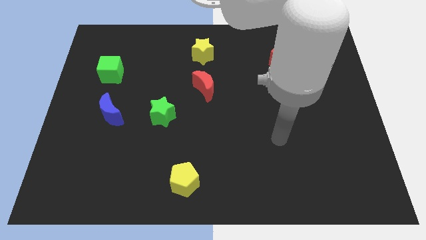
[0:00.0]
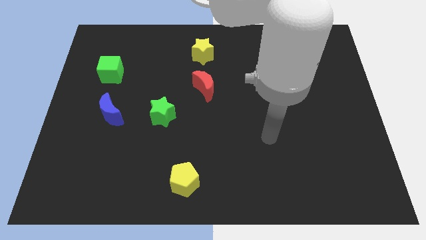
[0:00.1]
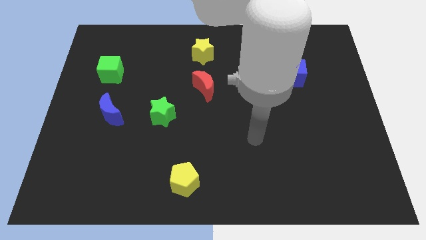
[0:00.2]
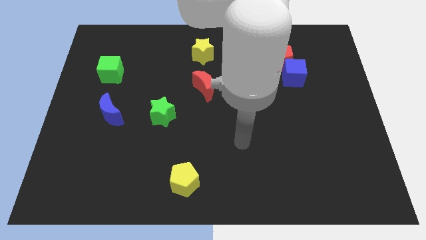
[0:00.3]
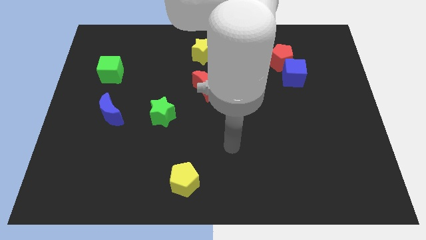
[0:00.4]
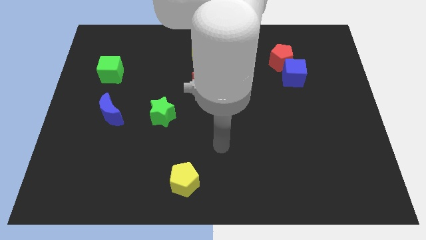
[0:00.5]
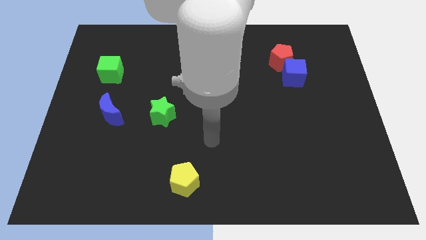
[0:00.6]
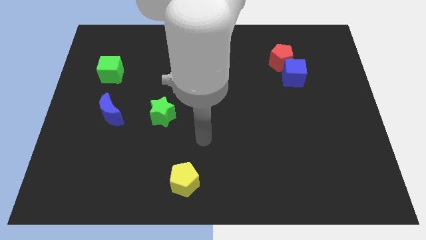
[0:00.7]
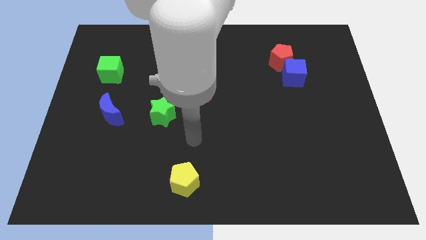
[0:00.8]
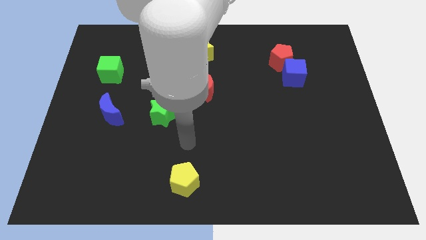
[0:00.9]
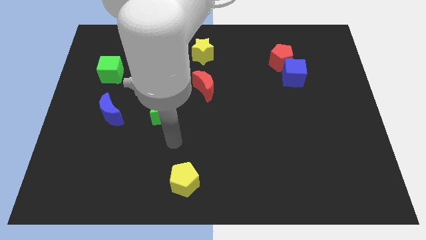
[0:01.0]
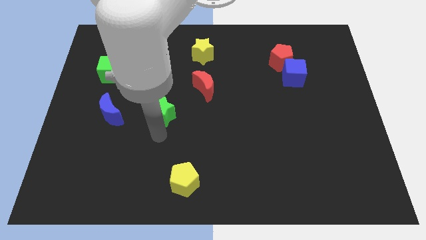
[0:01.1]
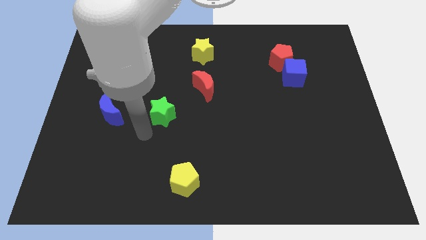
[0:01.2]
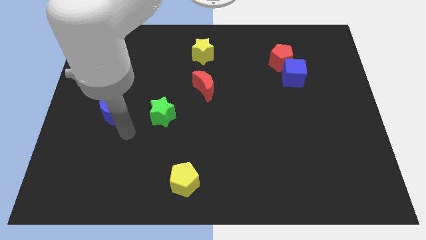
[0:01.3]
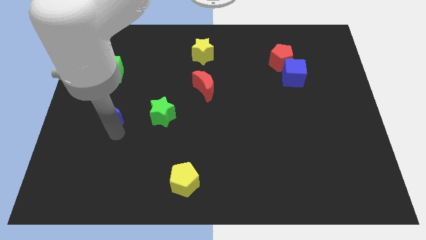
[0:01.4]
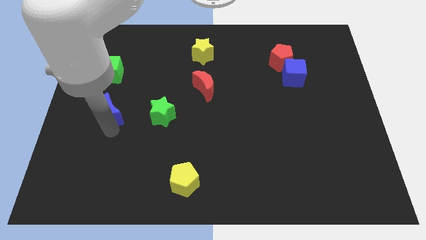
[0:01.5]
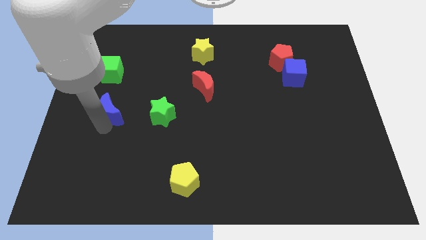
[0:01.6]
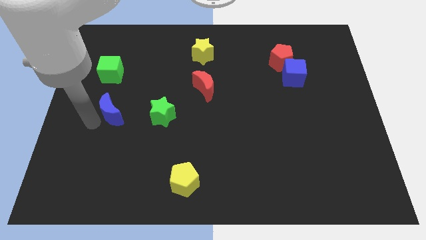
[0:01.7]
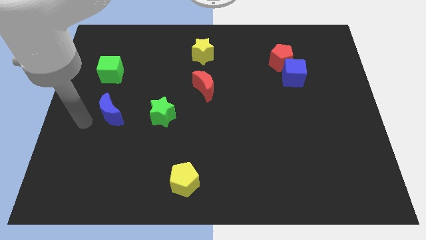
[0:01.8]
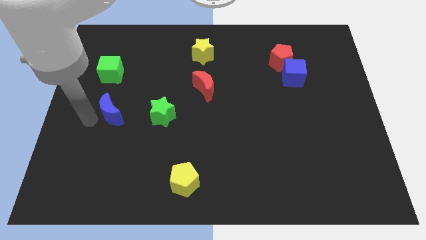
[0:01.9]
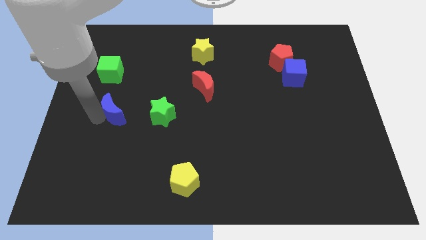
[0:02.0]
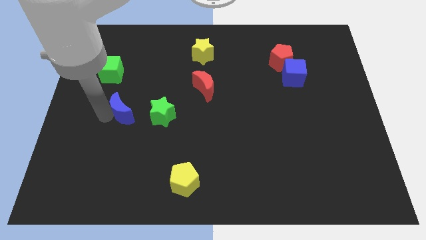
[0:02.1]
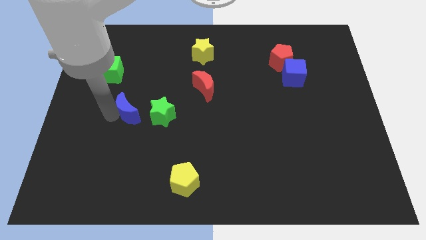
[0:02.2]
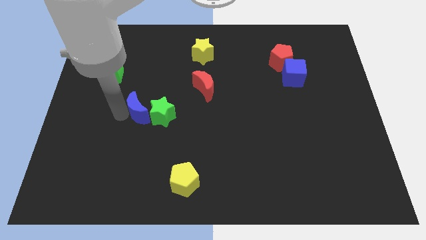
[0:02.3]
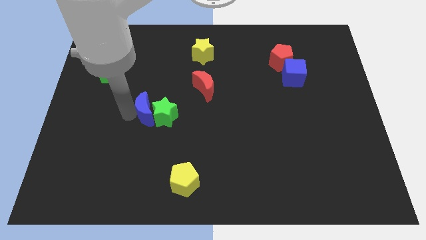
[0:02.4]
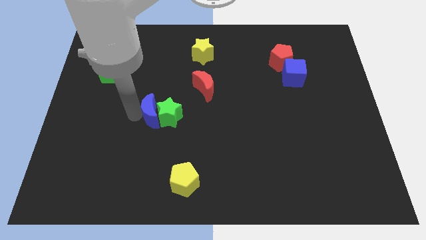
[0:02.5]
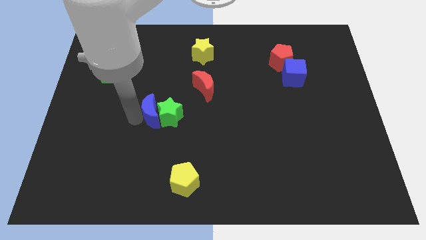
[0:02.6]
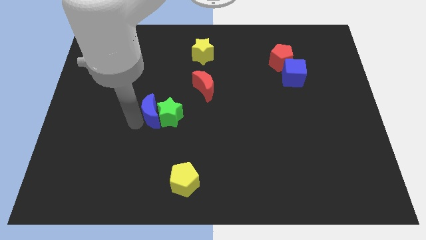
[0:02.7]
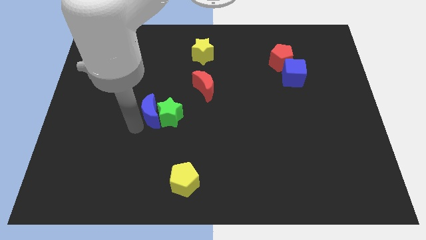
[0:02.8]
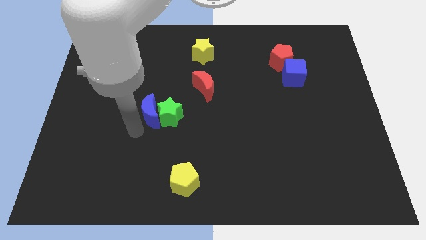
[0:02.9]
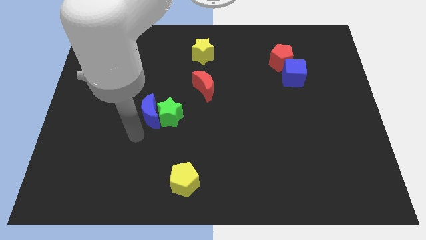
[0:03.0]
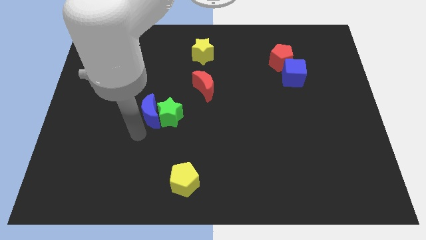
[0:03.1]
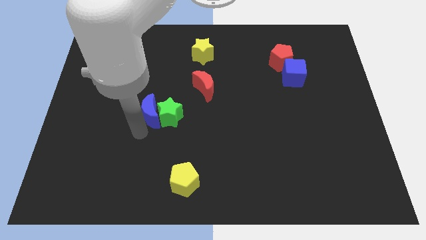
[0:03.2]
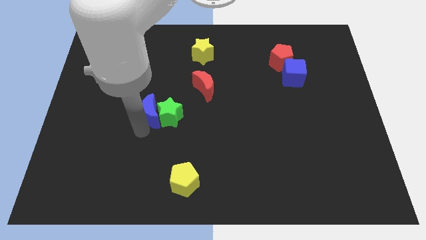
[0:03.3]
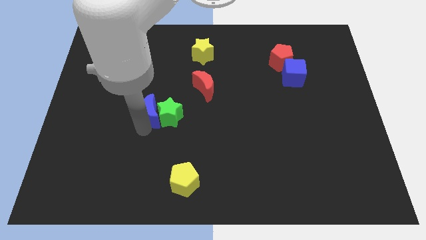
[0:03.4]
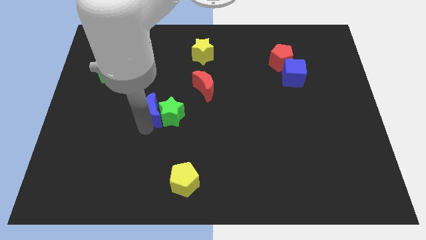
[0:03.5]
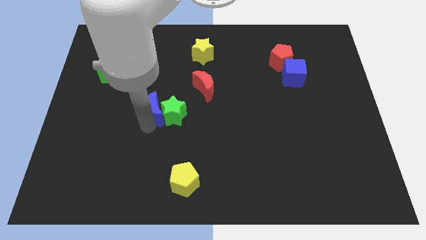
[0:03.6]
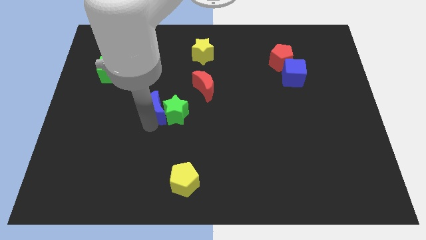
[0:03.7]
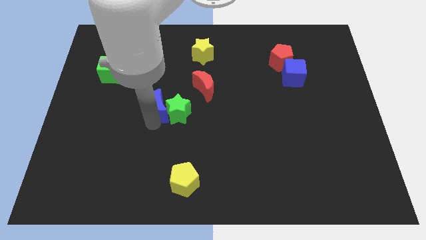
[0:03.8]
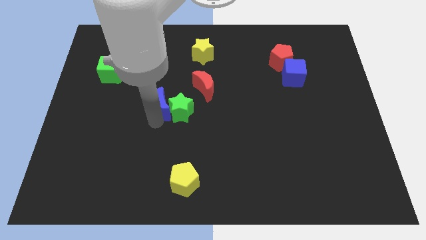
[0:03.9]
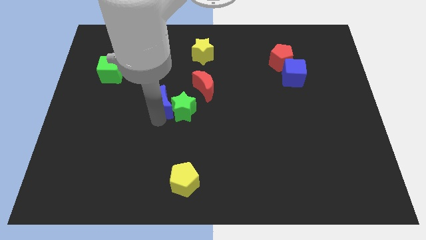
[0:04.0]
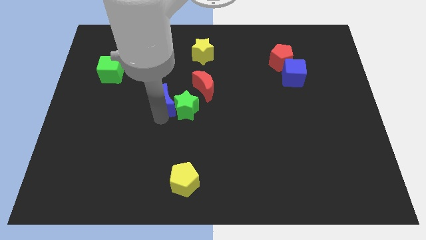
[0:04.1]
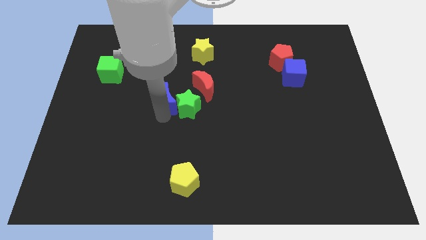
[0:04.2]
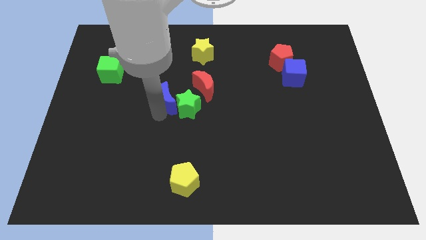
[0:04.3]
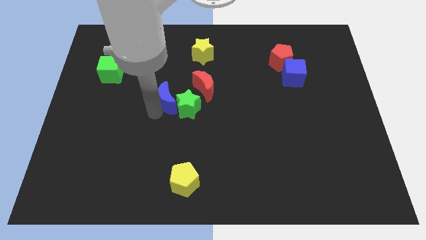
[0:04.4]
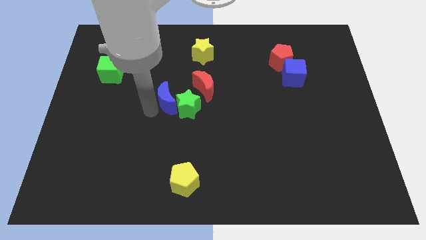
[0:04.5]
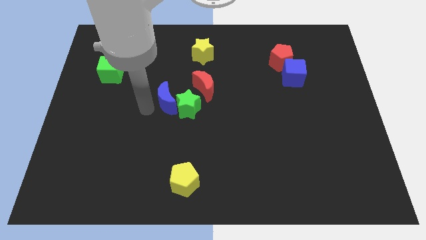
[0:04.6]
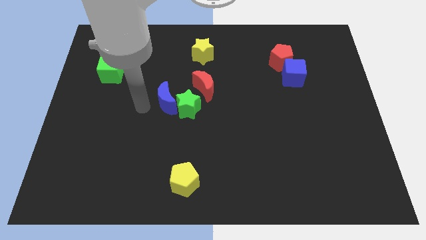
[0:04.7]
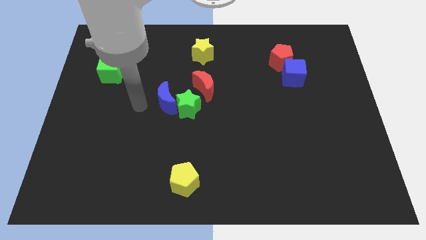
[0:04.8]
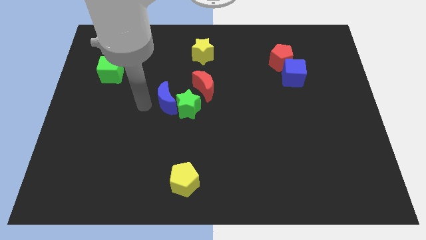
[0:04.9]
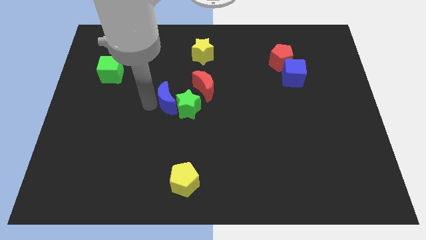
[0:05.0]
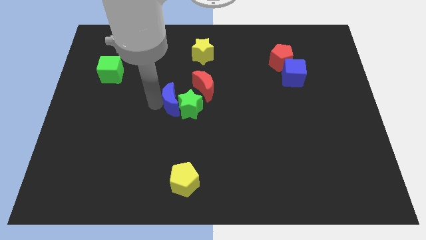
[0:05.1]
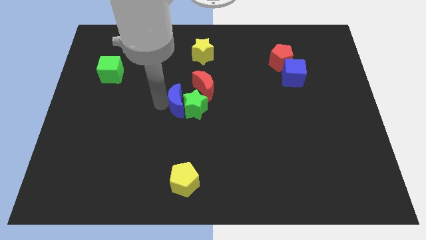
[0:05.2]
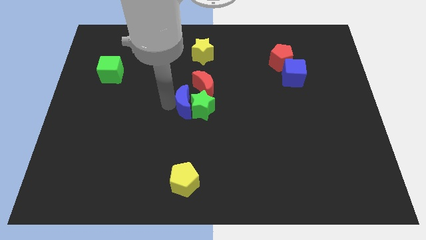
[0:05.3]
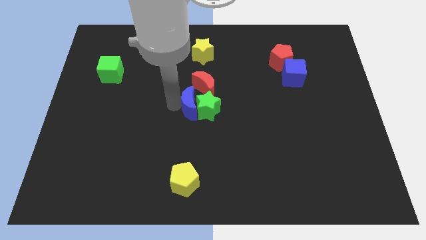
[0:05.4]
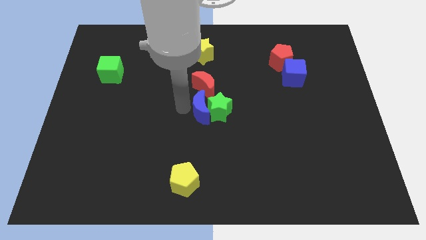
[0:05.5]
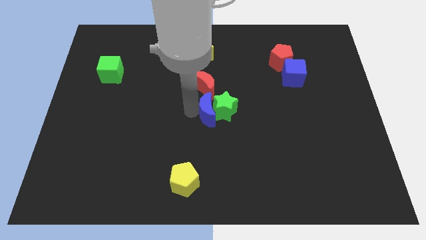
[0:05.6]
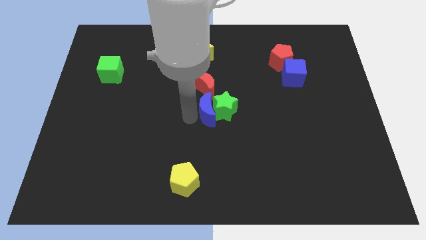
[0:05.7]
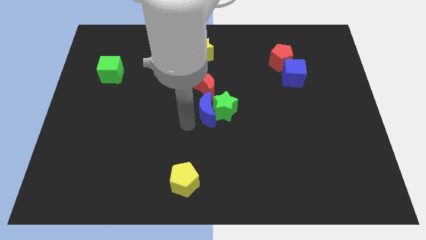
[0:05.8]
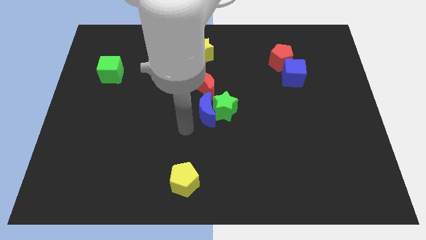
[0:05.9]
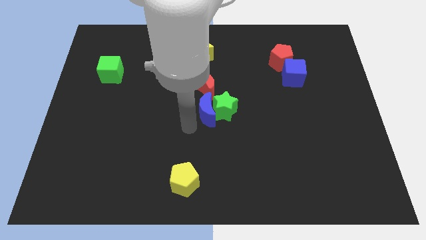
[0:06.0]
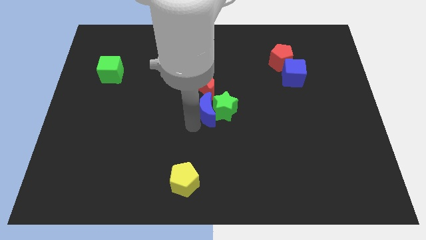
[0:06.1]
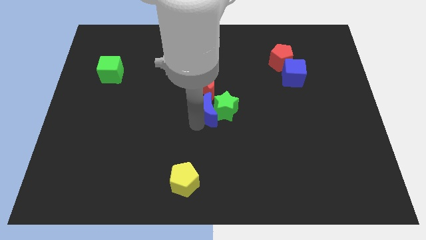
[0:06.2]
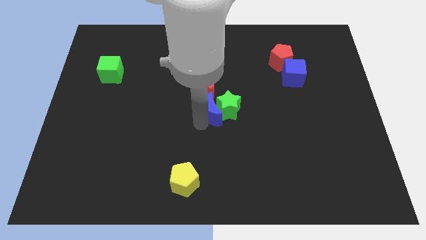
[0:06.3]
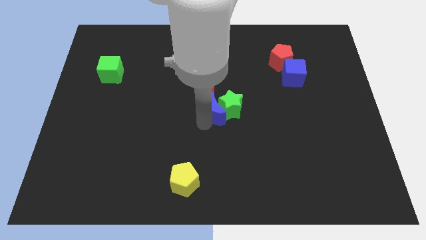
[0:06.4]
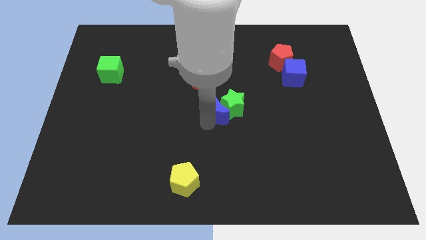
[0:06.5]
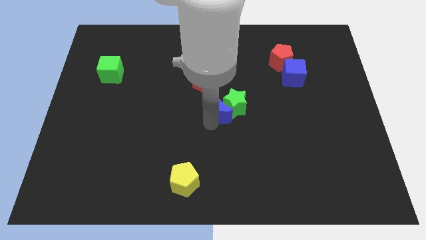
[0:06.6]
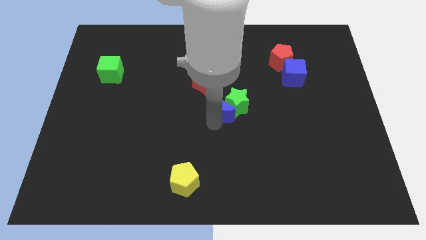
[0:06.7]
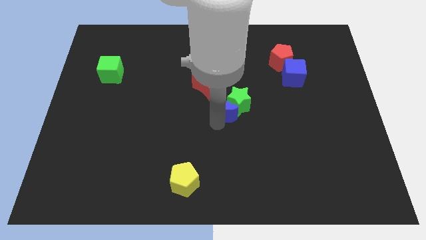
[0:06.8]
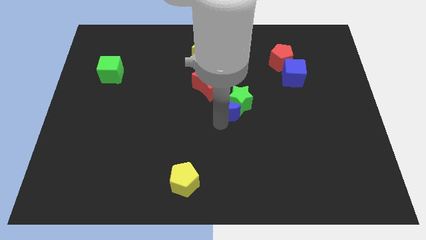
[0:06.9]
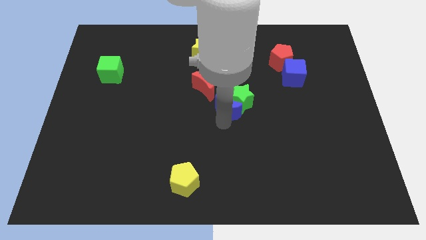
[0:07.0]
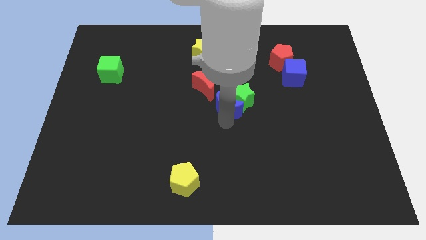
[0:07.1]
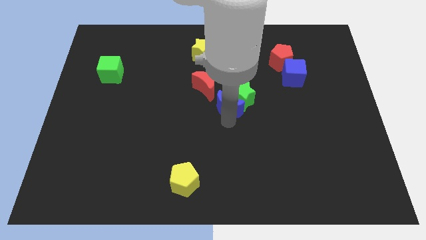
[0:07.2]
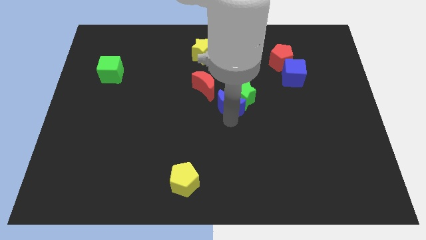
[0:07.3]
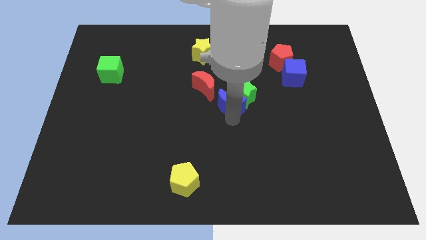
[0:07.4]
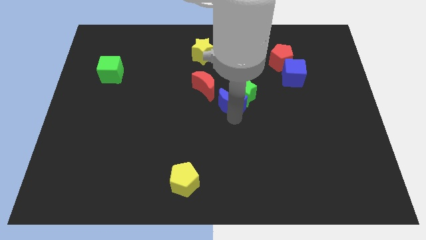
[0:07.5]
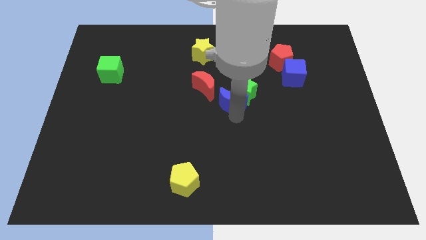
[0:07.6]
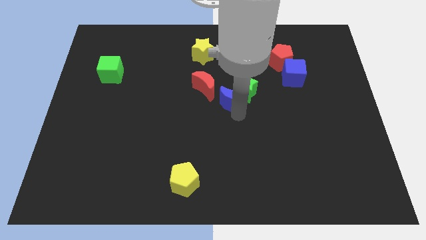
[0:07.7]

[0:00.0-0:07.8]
slide the blue moon to the right of the red moon
